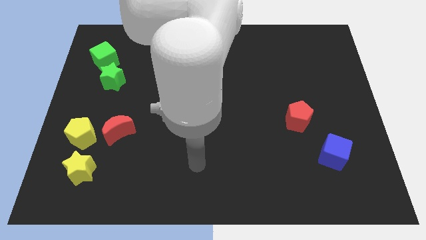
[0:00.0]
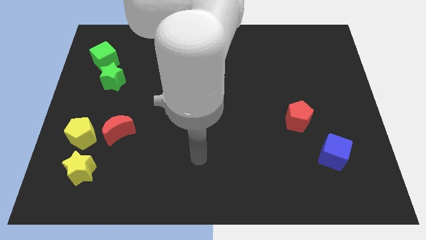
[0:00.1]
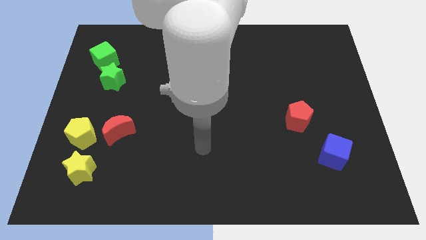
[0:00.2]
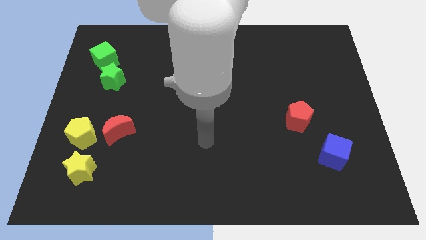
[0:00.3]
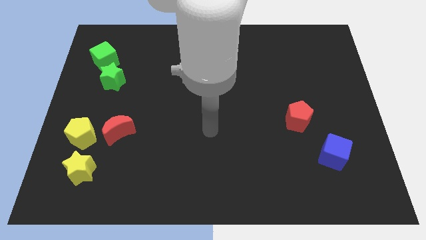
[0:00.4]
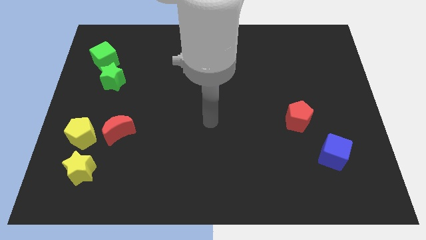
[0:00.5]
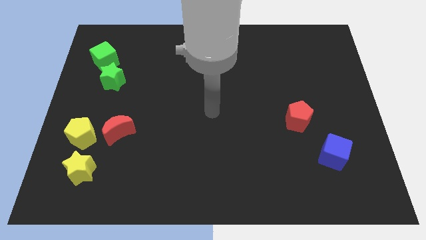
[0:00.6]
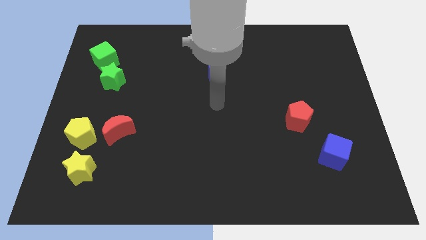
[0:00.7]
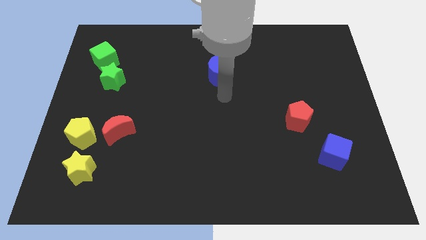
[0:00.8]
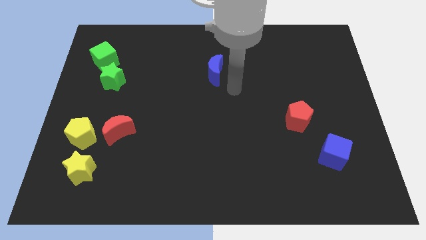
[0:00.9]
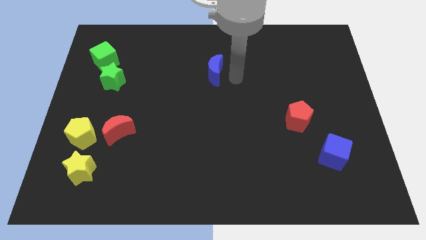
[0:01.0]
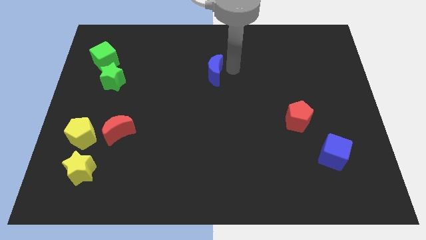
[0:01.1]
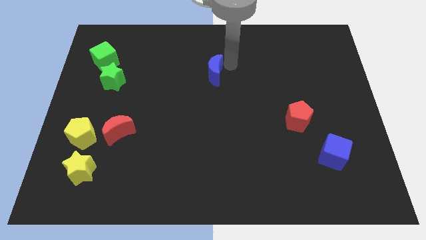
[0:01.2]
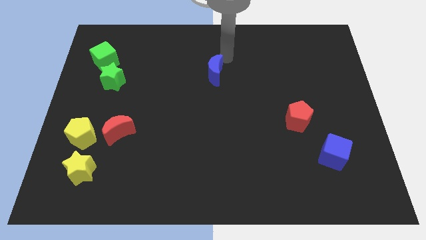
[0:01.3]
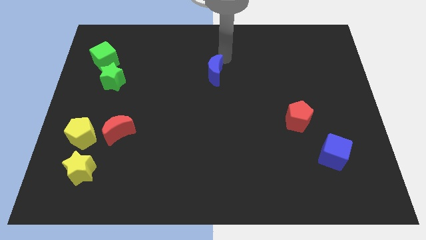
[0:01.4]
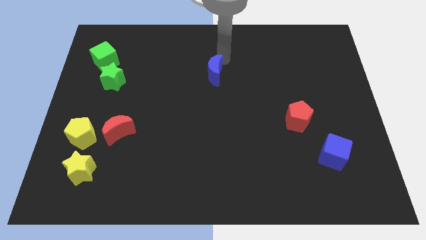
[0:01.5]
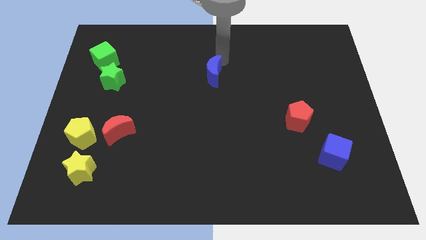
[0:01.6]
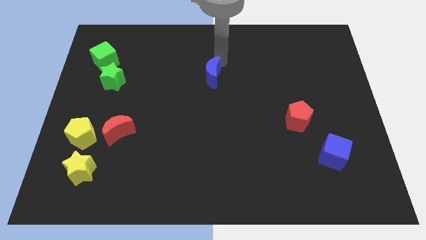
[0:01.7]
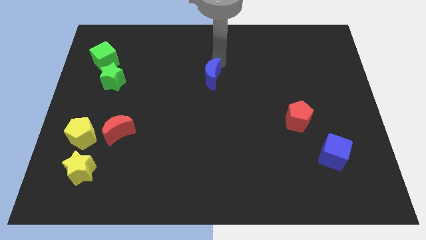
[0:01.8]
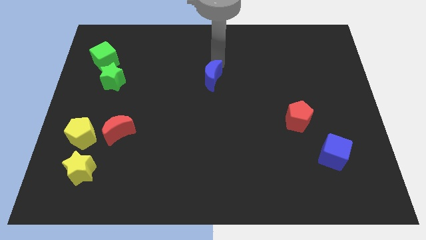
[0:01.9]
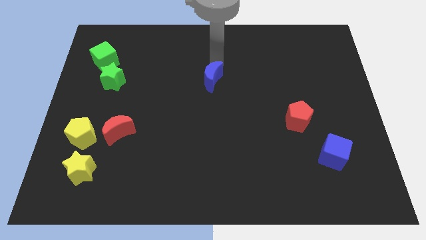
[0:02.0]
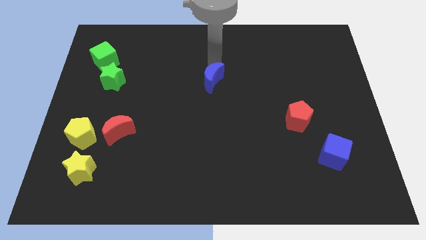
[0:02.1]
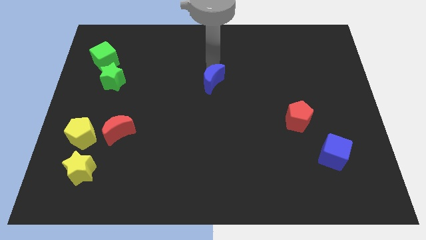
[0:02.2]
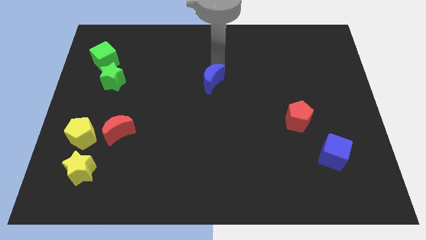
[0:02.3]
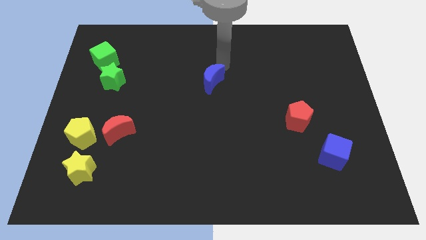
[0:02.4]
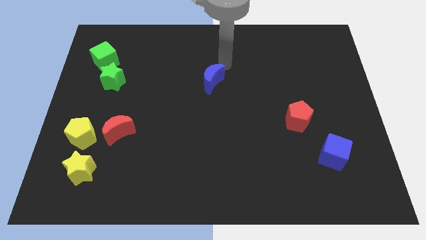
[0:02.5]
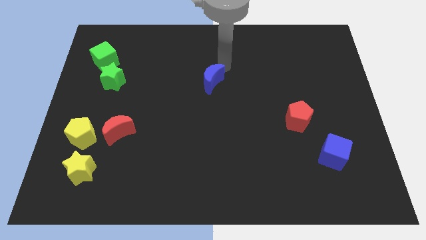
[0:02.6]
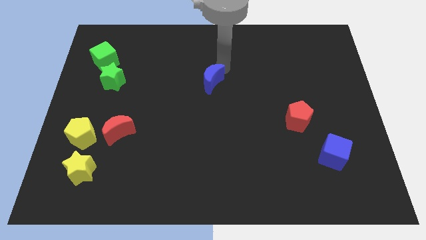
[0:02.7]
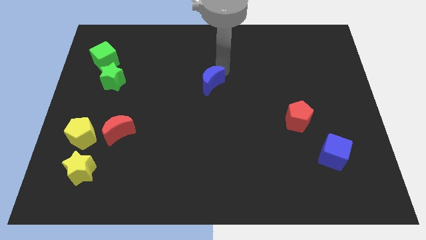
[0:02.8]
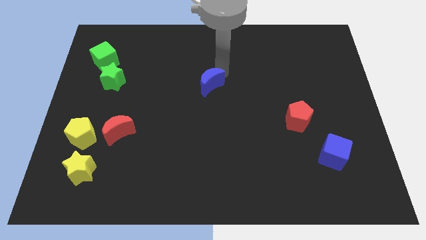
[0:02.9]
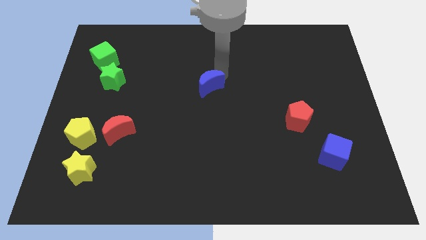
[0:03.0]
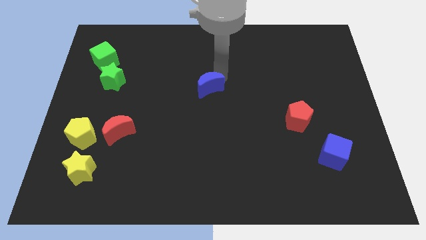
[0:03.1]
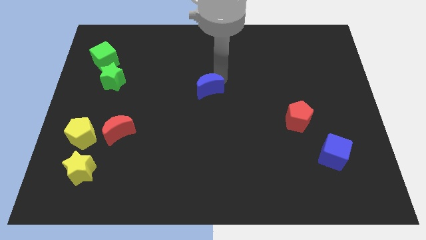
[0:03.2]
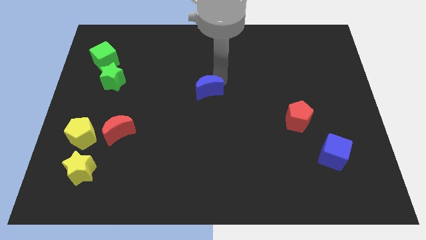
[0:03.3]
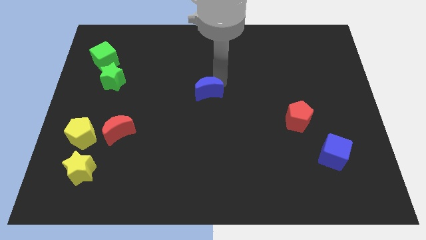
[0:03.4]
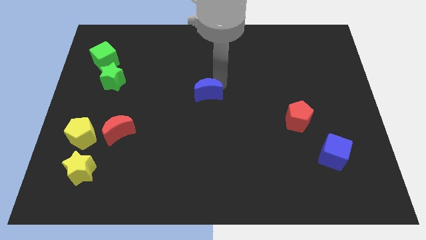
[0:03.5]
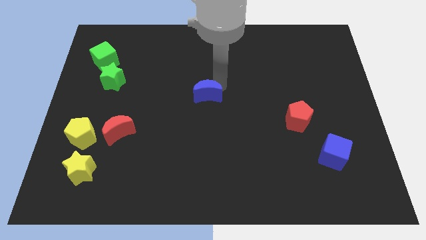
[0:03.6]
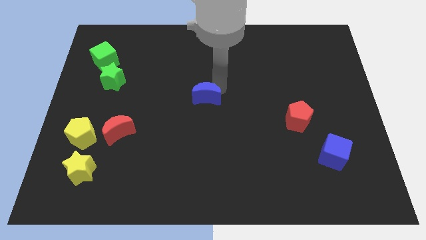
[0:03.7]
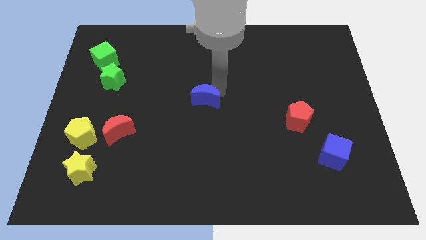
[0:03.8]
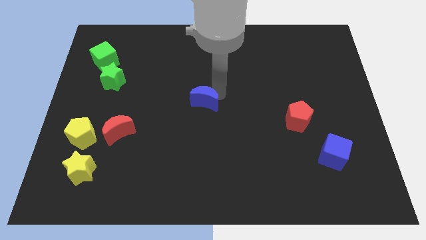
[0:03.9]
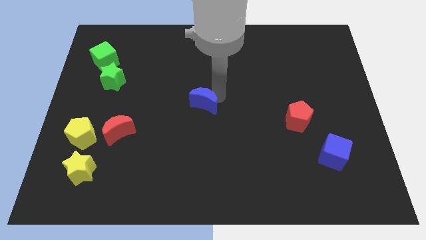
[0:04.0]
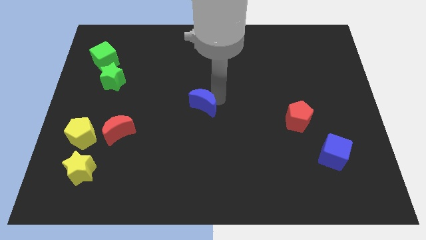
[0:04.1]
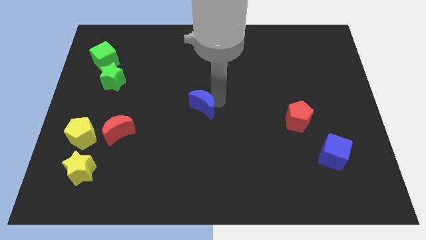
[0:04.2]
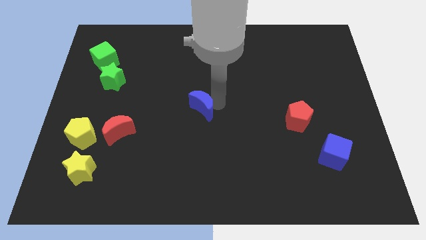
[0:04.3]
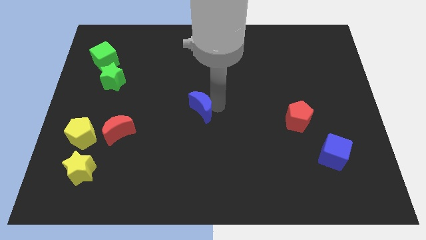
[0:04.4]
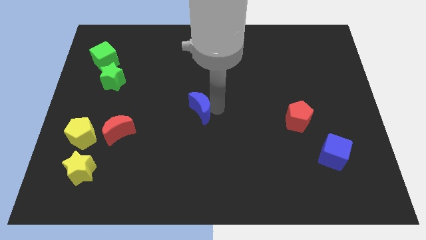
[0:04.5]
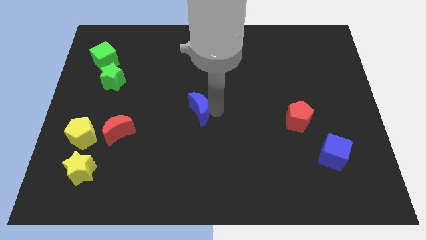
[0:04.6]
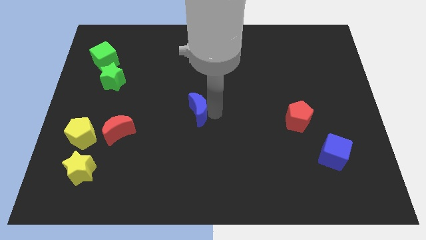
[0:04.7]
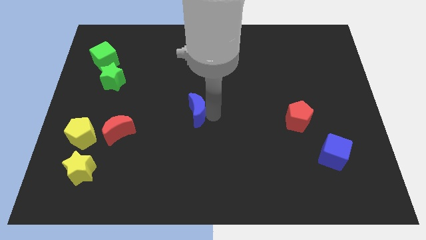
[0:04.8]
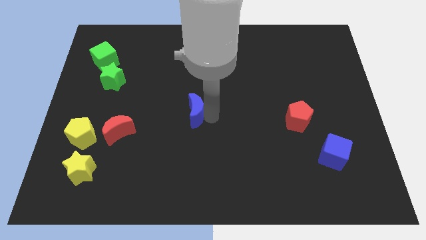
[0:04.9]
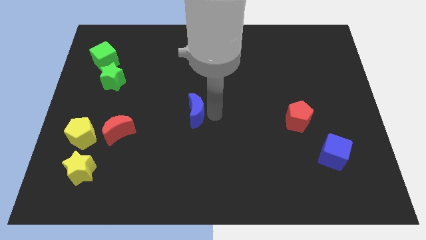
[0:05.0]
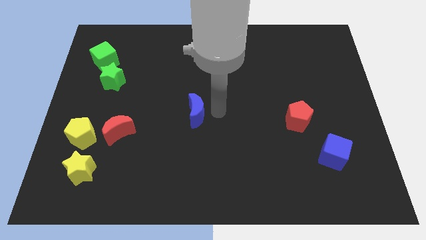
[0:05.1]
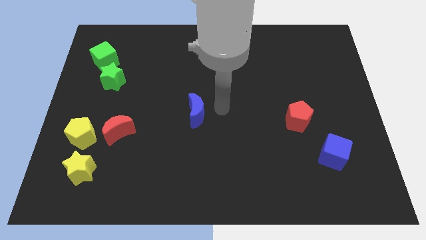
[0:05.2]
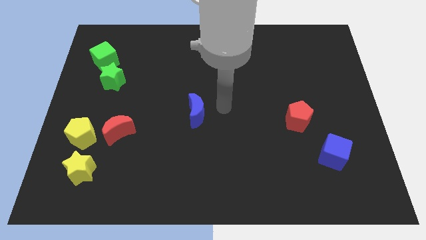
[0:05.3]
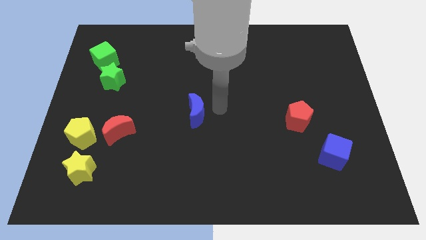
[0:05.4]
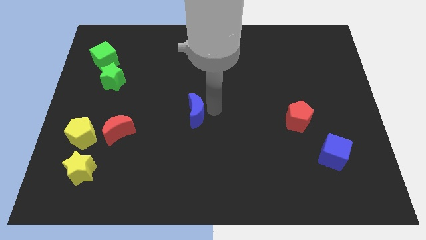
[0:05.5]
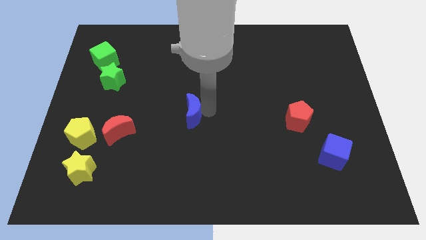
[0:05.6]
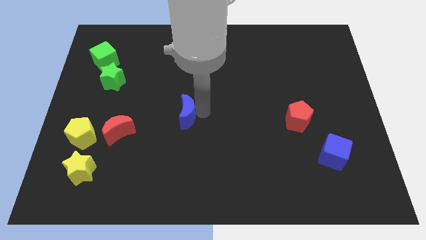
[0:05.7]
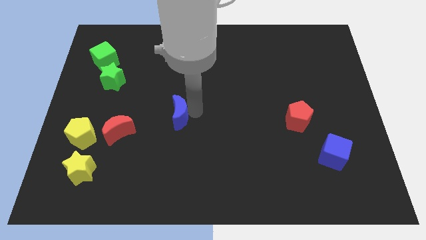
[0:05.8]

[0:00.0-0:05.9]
slide the blue moon to the right side of the red moon
